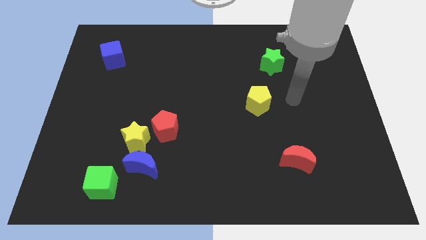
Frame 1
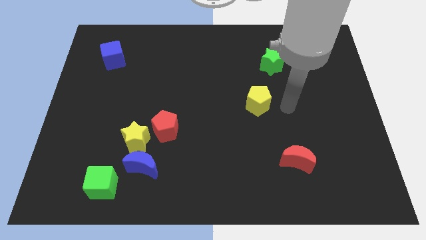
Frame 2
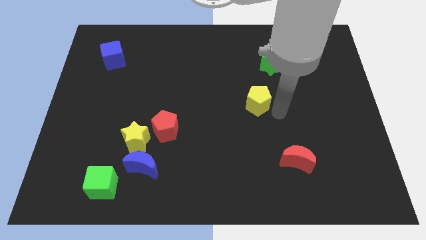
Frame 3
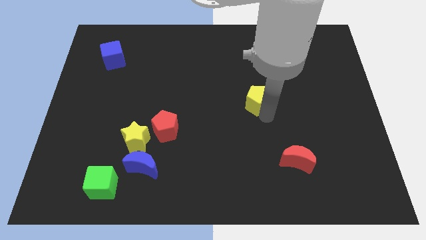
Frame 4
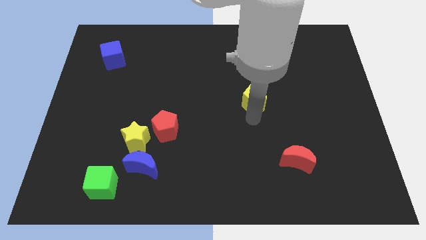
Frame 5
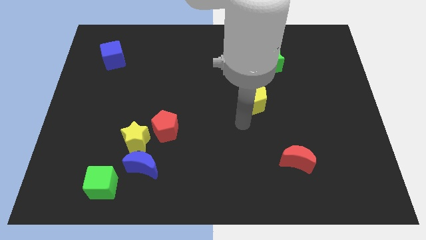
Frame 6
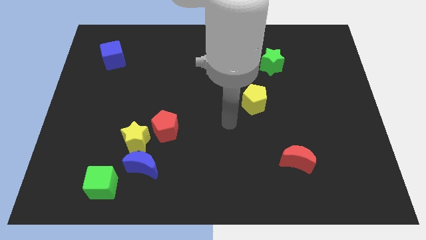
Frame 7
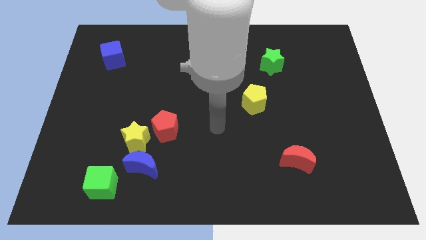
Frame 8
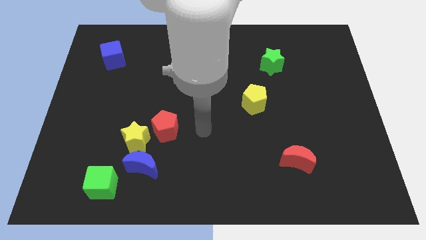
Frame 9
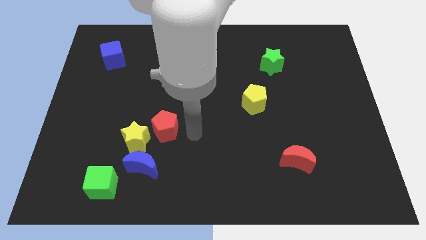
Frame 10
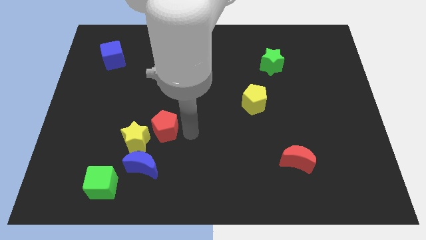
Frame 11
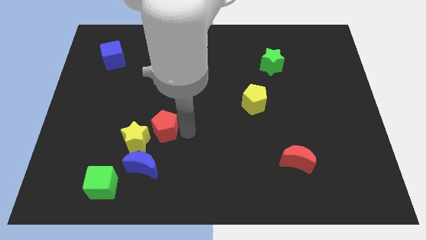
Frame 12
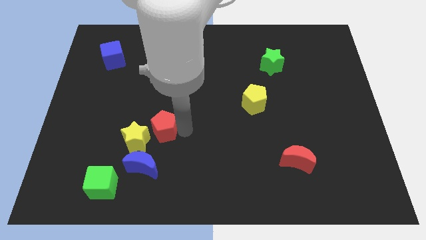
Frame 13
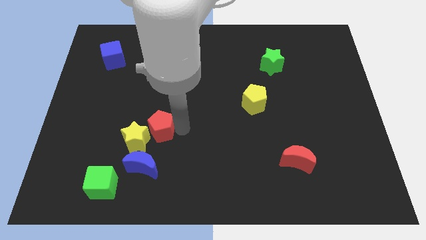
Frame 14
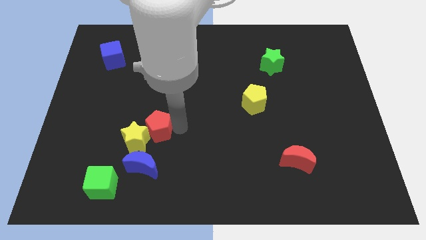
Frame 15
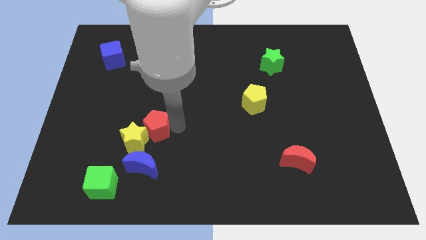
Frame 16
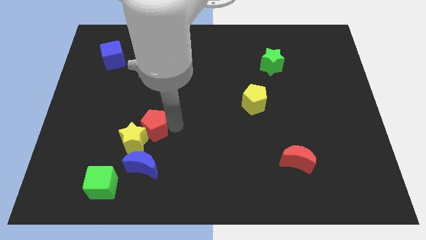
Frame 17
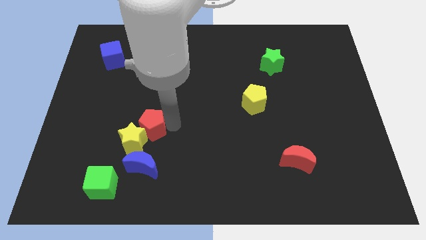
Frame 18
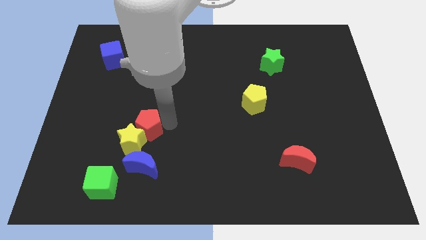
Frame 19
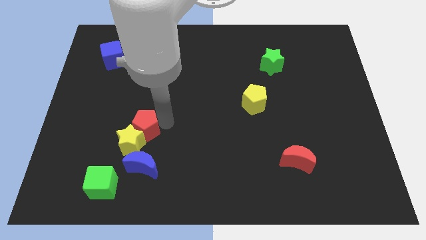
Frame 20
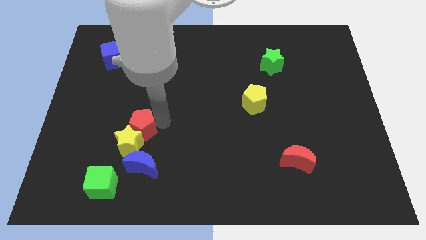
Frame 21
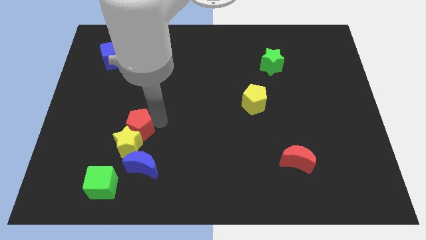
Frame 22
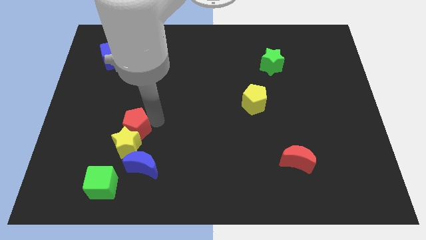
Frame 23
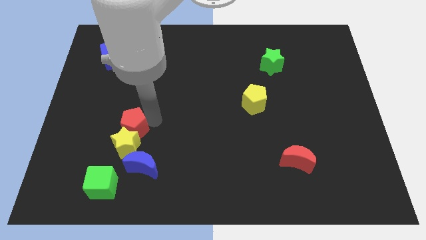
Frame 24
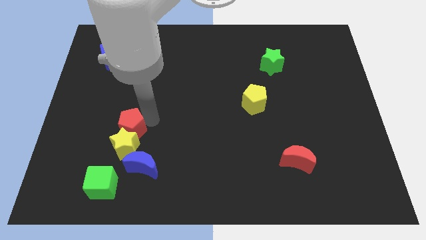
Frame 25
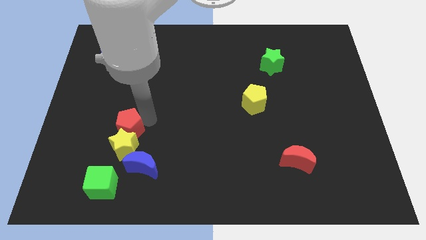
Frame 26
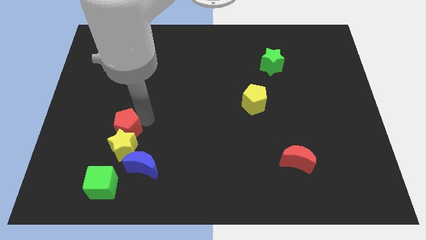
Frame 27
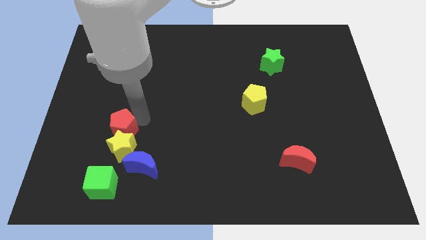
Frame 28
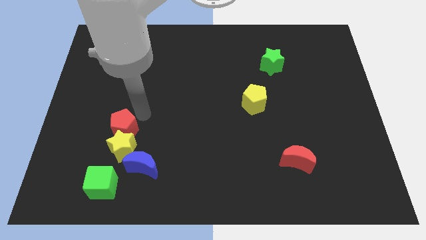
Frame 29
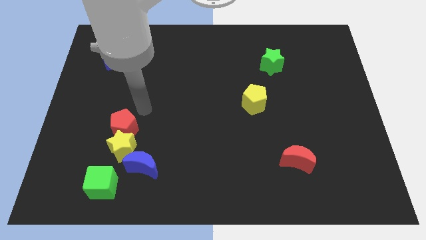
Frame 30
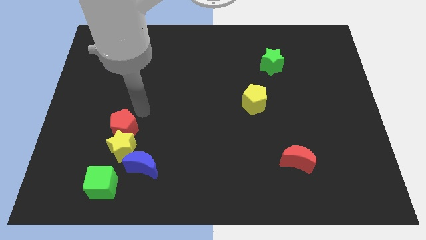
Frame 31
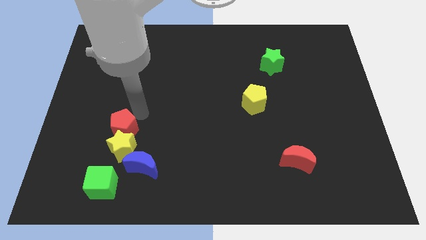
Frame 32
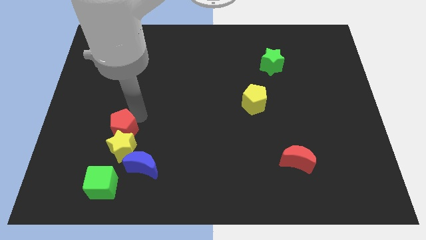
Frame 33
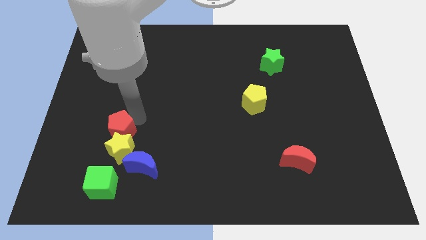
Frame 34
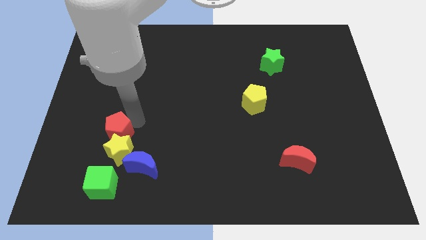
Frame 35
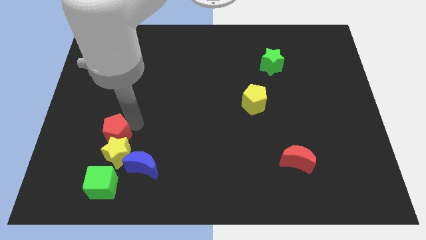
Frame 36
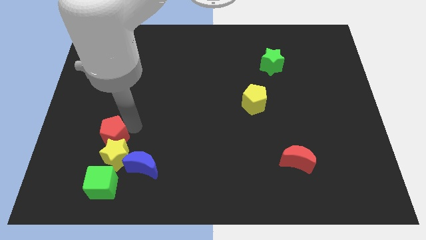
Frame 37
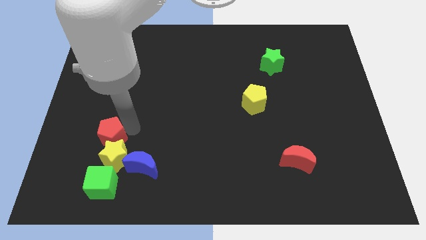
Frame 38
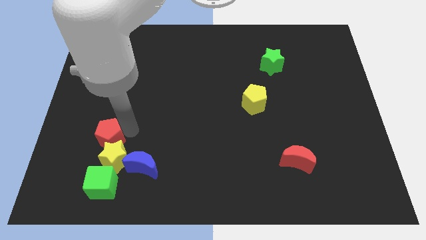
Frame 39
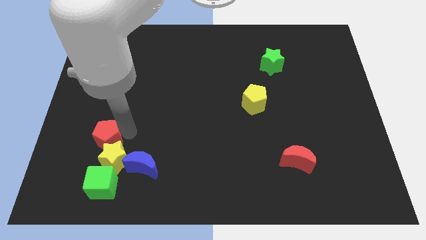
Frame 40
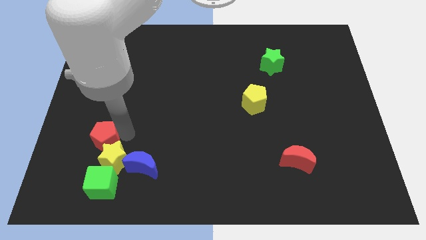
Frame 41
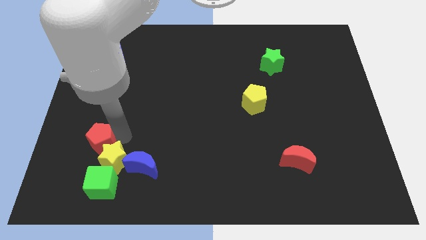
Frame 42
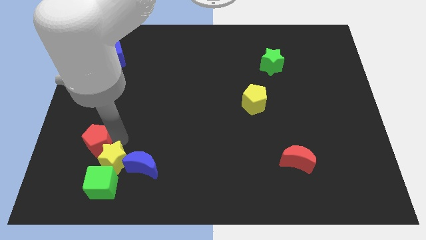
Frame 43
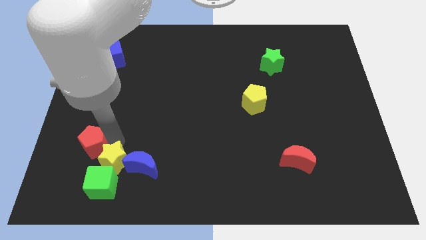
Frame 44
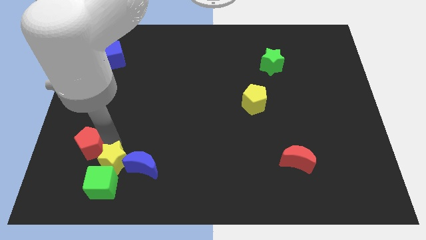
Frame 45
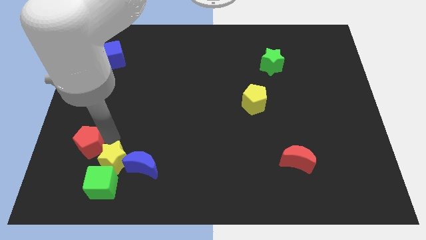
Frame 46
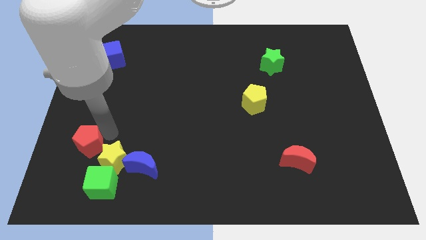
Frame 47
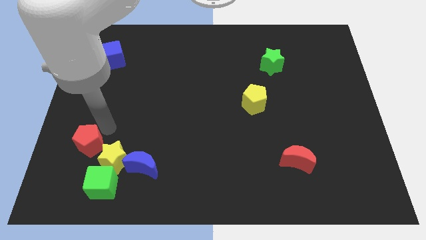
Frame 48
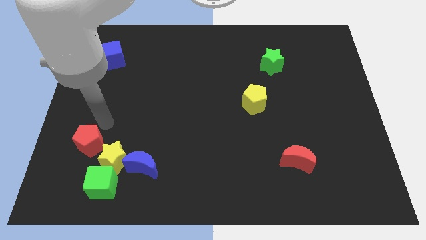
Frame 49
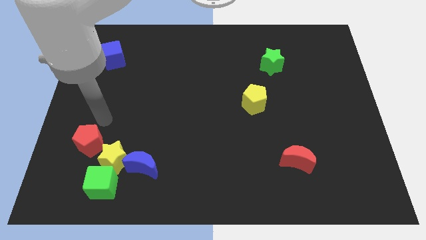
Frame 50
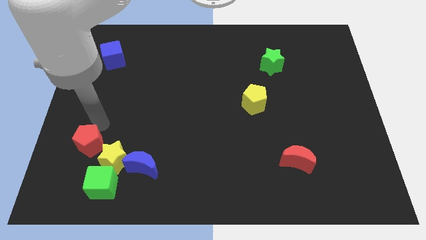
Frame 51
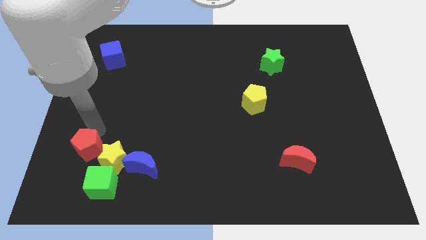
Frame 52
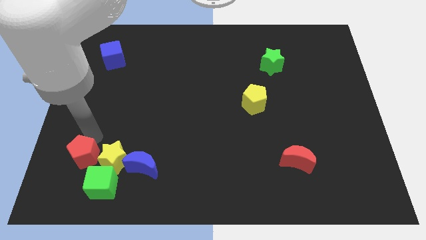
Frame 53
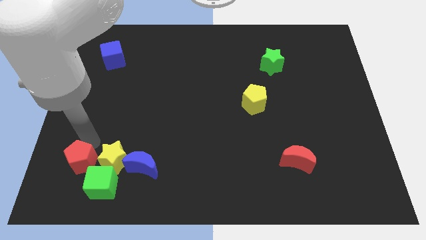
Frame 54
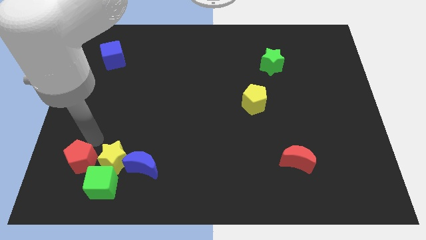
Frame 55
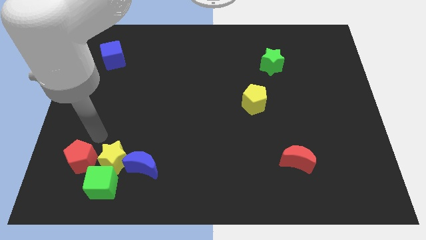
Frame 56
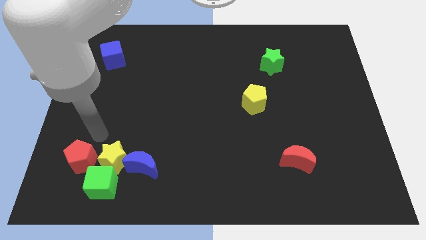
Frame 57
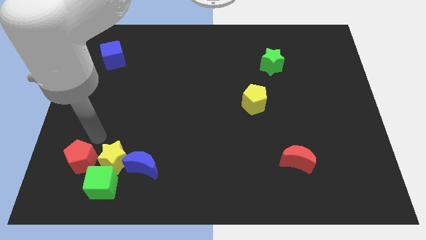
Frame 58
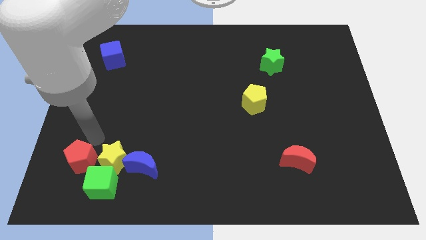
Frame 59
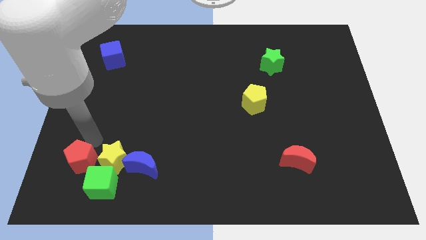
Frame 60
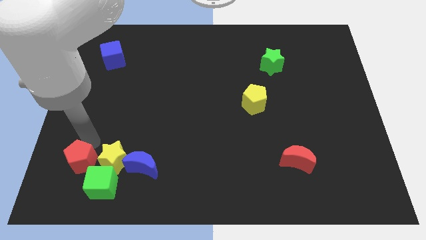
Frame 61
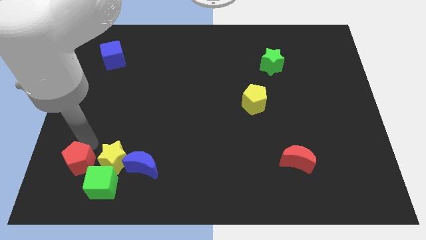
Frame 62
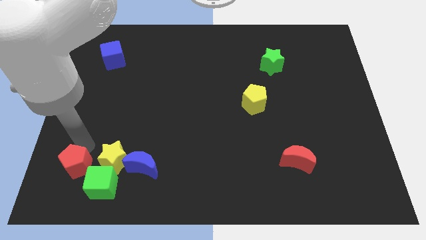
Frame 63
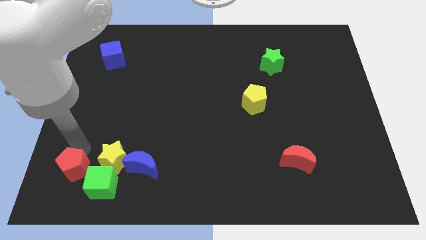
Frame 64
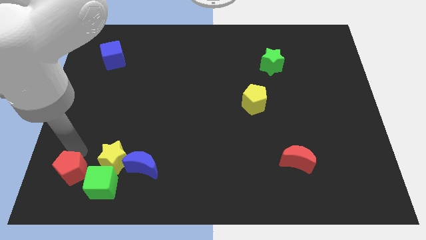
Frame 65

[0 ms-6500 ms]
move the red pentagon to the bottom left of the board

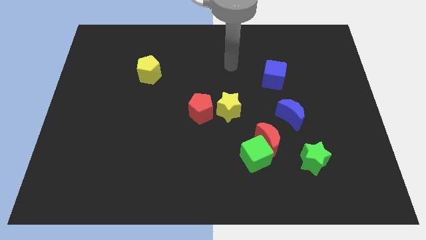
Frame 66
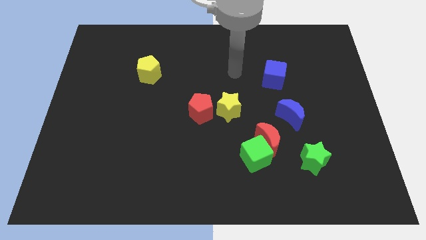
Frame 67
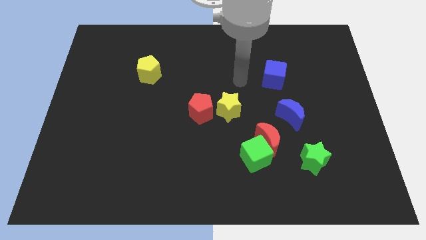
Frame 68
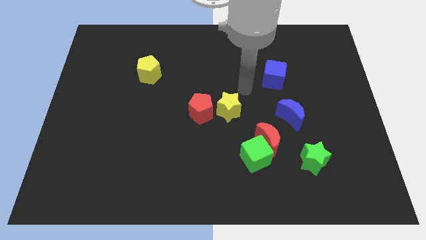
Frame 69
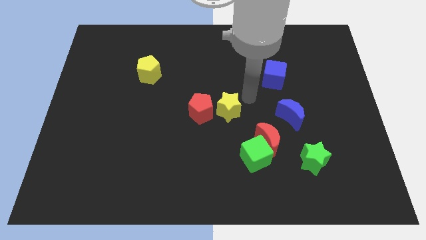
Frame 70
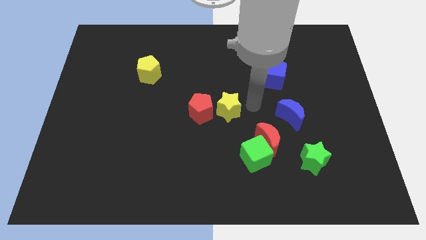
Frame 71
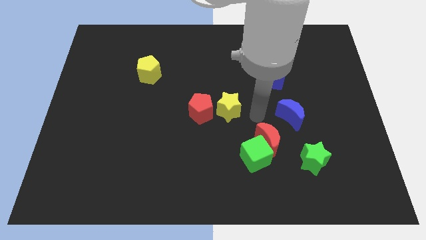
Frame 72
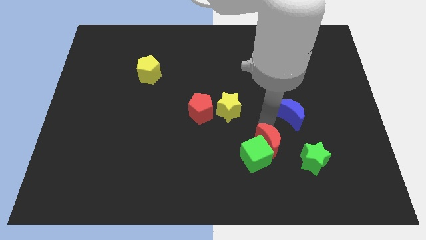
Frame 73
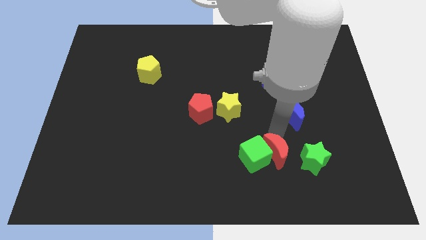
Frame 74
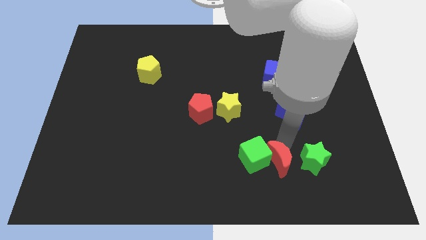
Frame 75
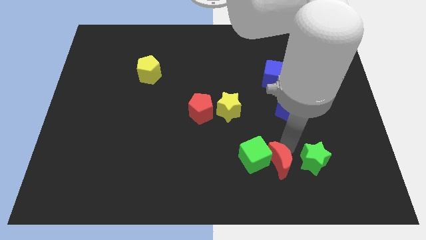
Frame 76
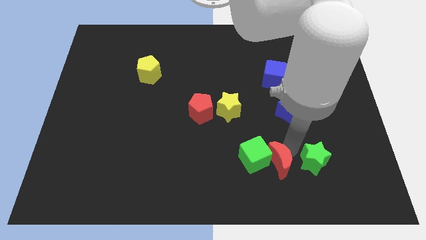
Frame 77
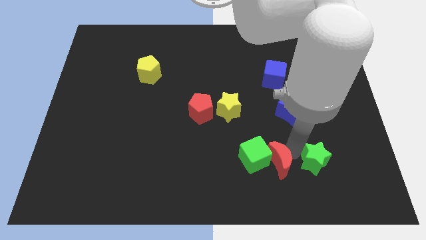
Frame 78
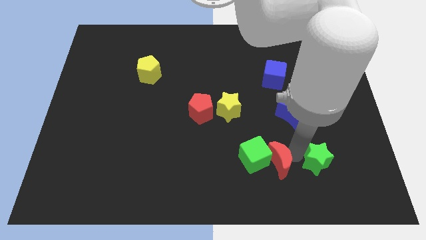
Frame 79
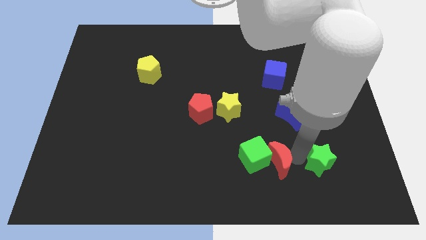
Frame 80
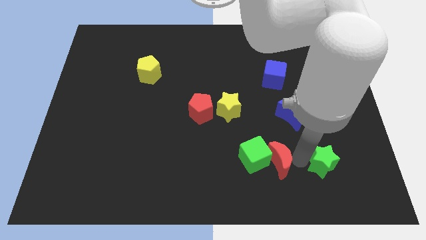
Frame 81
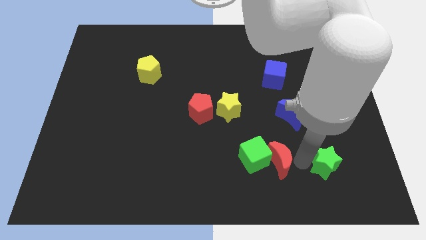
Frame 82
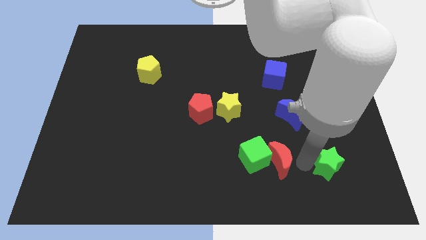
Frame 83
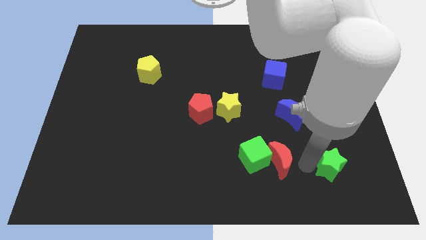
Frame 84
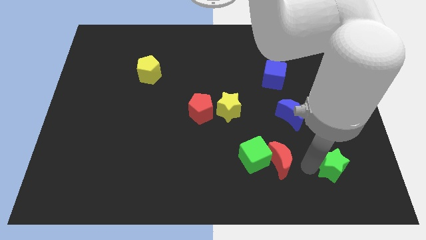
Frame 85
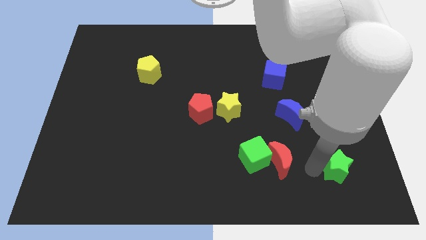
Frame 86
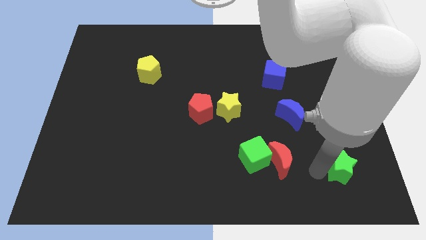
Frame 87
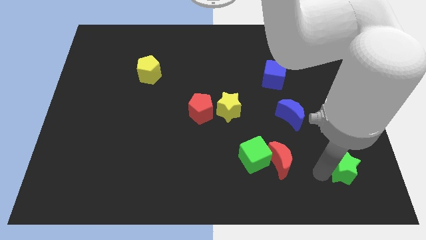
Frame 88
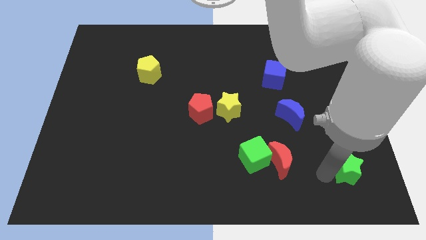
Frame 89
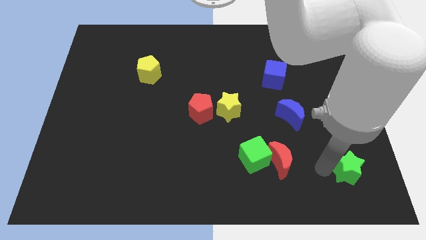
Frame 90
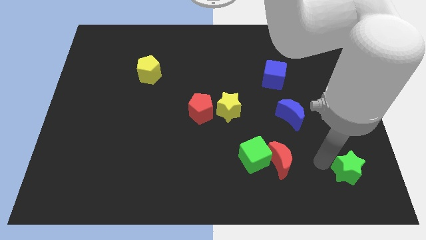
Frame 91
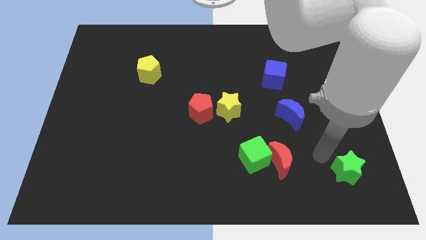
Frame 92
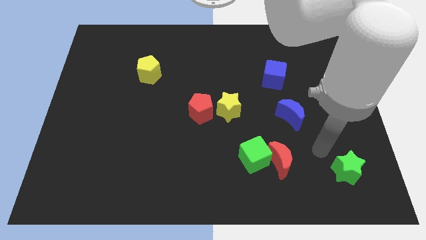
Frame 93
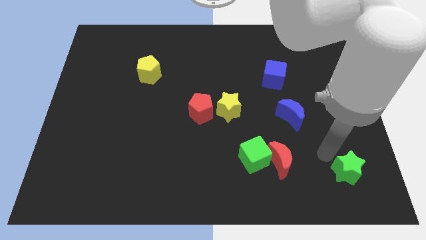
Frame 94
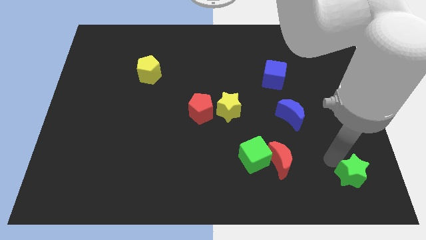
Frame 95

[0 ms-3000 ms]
put the green star to the lower right corner
